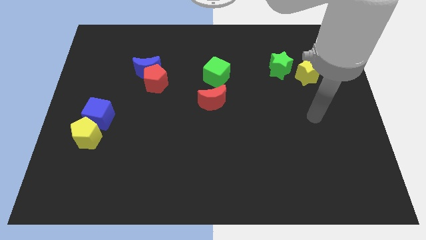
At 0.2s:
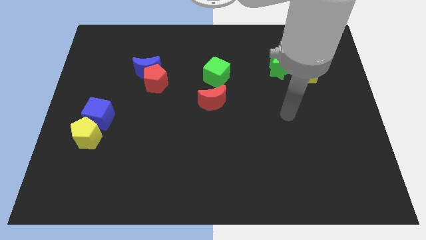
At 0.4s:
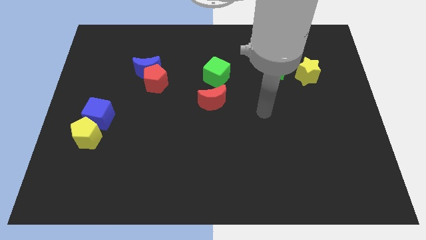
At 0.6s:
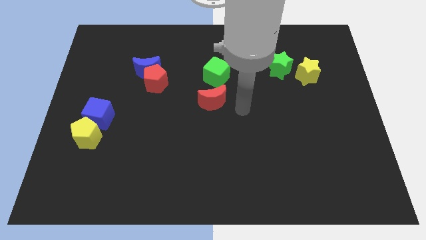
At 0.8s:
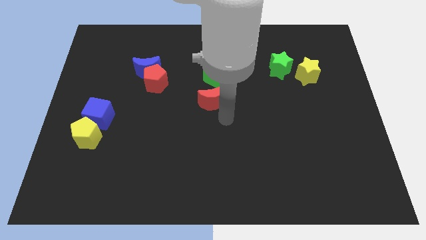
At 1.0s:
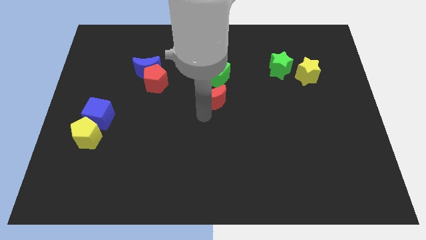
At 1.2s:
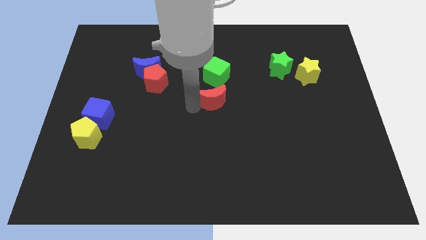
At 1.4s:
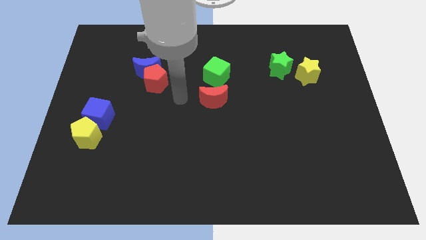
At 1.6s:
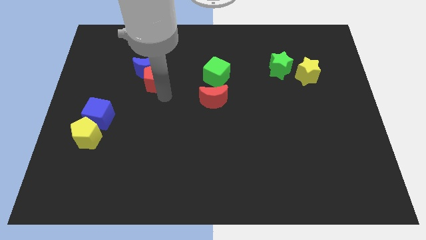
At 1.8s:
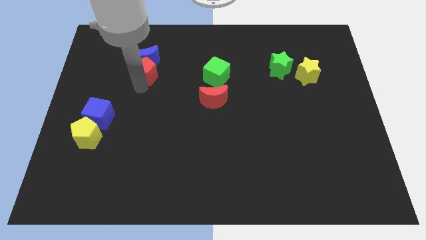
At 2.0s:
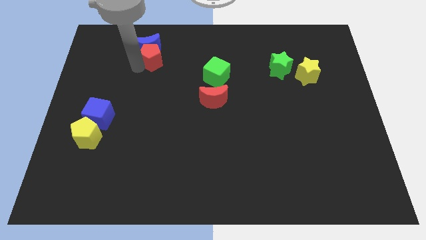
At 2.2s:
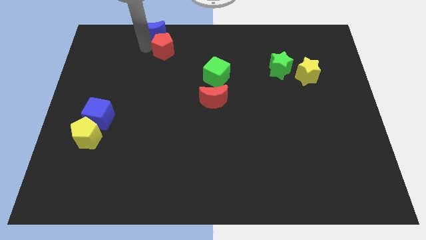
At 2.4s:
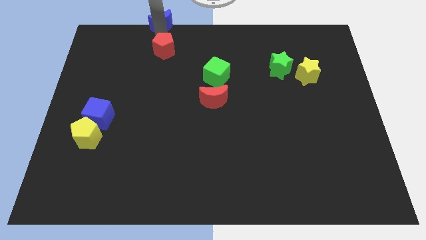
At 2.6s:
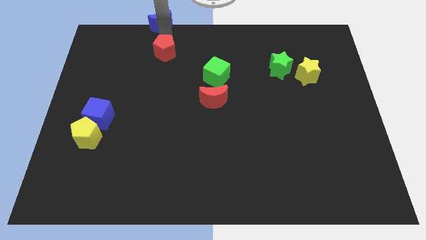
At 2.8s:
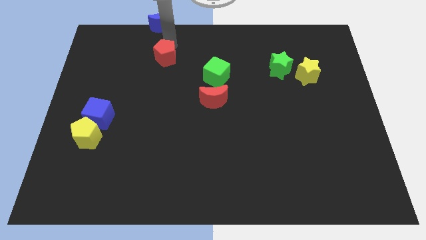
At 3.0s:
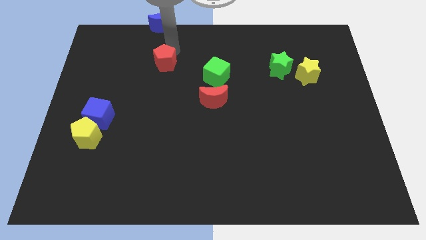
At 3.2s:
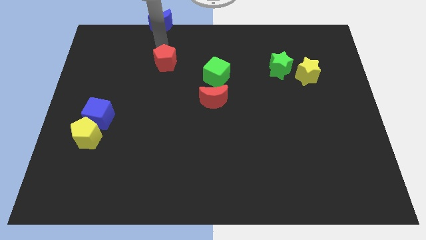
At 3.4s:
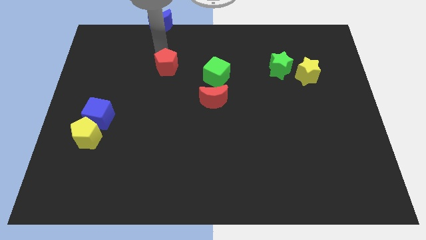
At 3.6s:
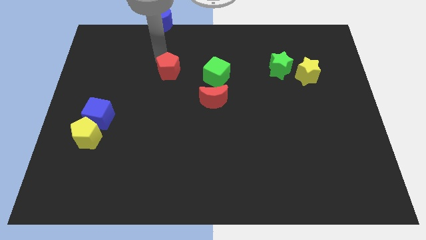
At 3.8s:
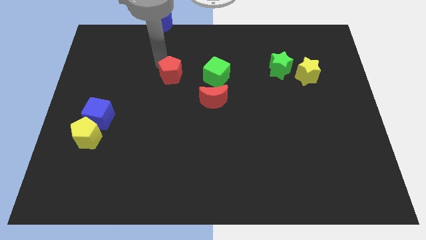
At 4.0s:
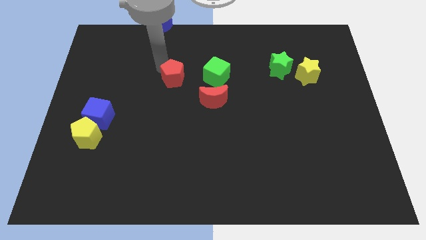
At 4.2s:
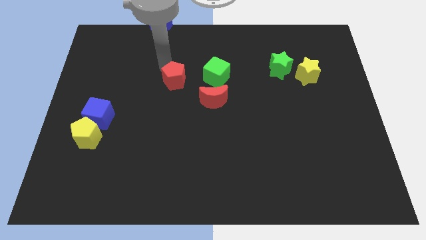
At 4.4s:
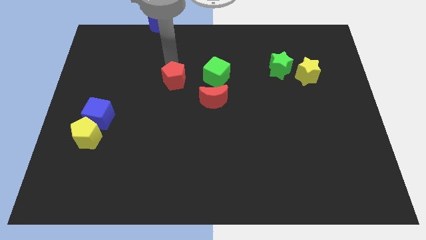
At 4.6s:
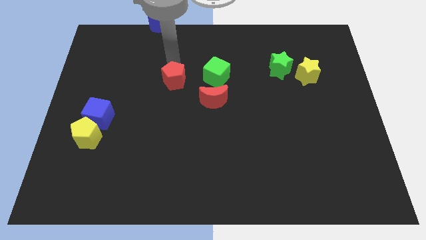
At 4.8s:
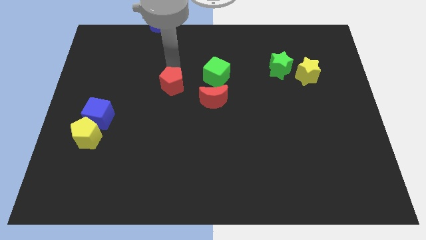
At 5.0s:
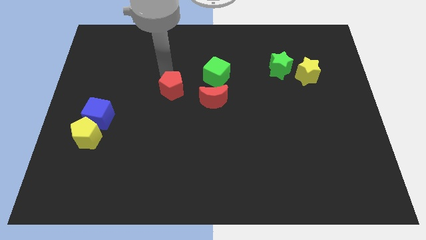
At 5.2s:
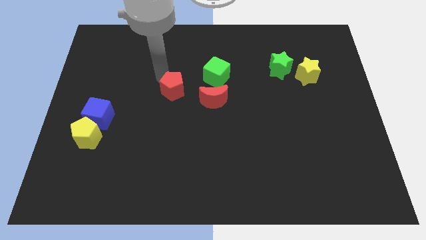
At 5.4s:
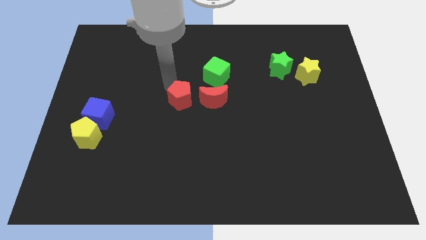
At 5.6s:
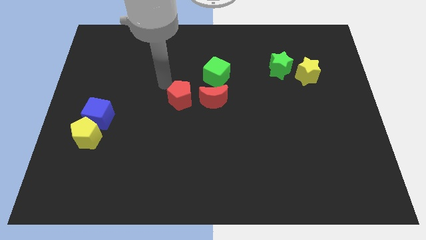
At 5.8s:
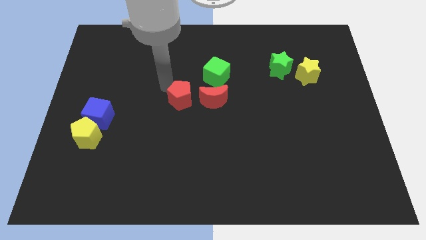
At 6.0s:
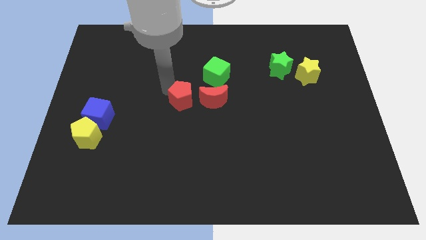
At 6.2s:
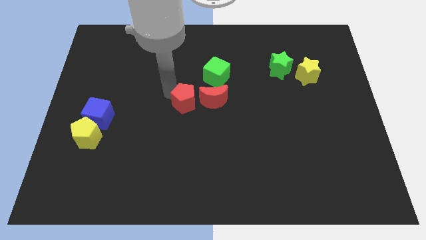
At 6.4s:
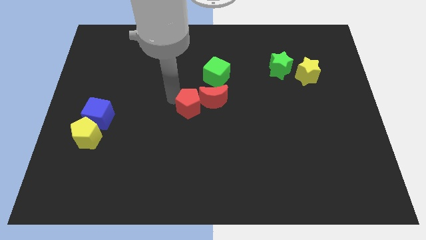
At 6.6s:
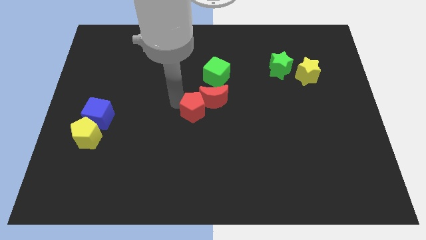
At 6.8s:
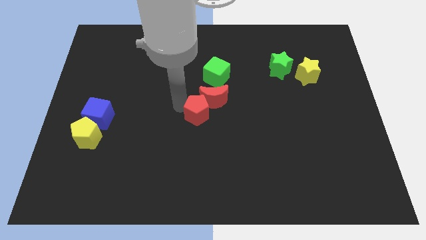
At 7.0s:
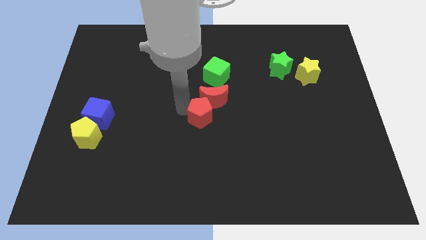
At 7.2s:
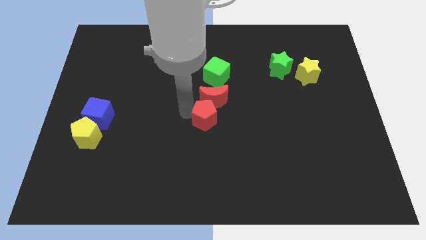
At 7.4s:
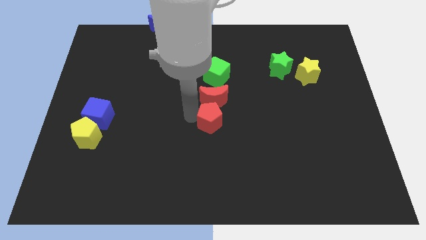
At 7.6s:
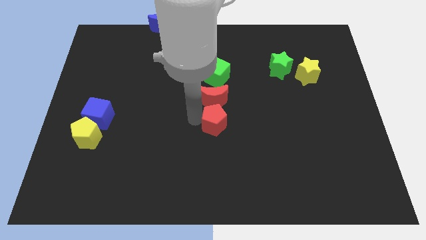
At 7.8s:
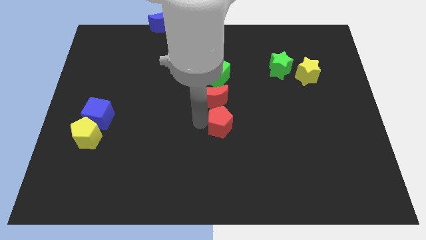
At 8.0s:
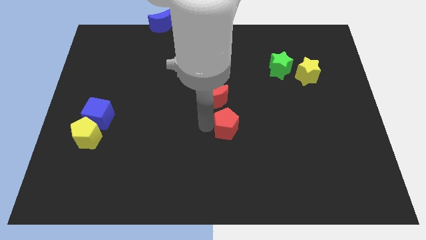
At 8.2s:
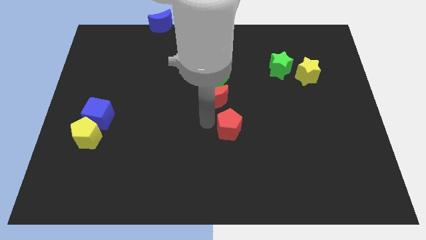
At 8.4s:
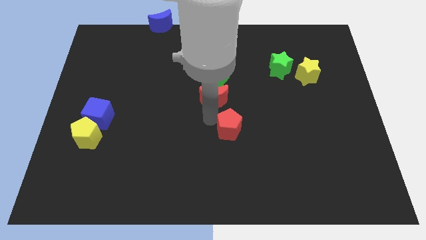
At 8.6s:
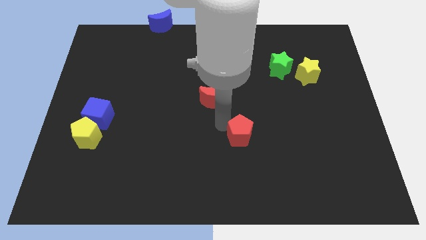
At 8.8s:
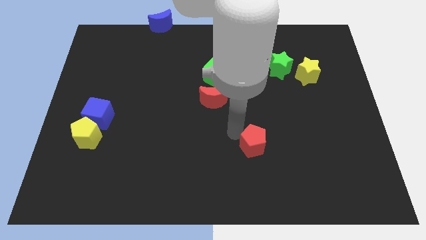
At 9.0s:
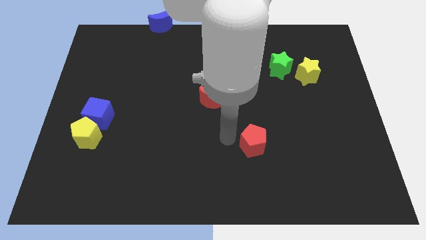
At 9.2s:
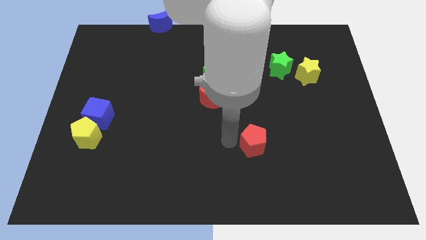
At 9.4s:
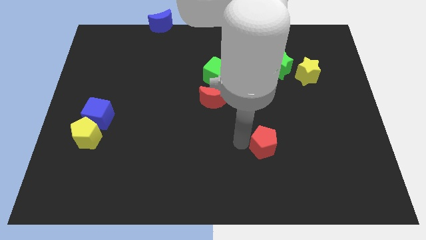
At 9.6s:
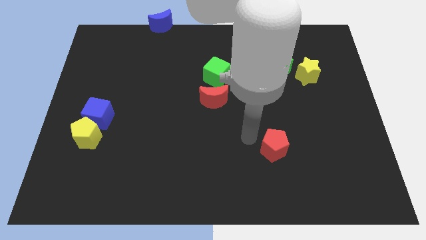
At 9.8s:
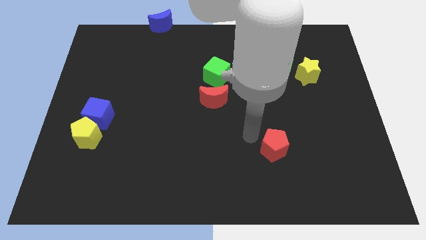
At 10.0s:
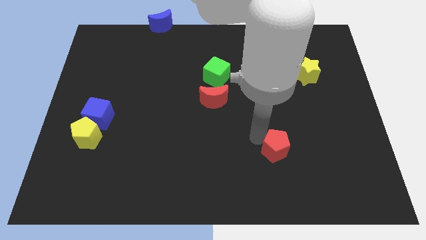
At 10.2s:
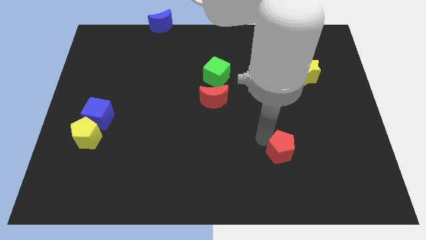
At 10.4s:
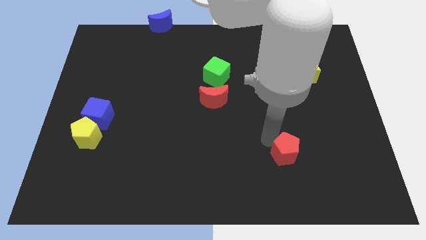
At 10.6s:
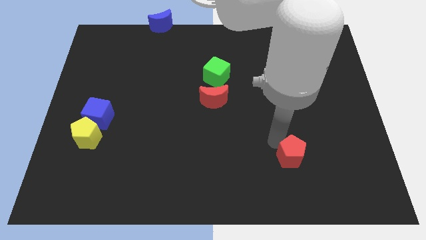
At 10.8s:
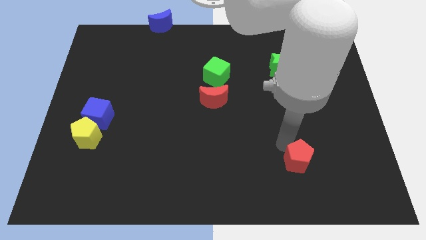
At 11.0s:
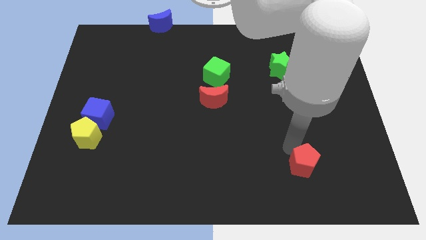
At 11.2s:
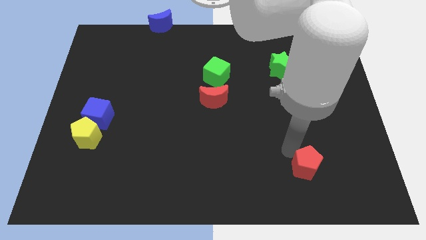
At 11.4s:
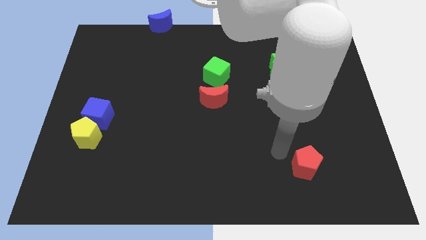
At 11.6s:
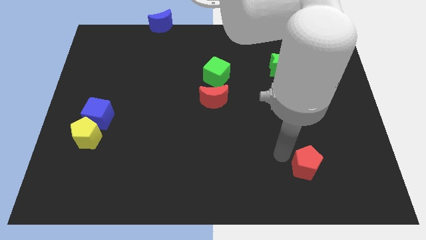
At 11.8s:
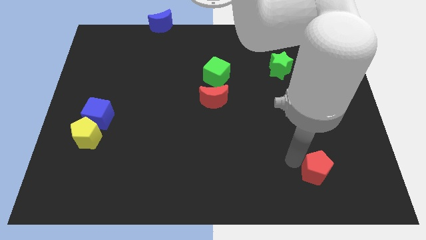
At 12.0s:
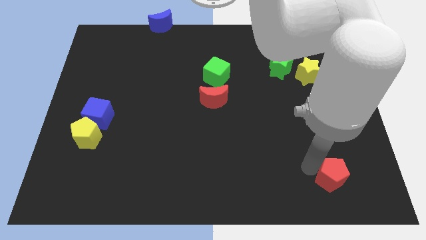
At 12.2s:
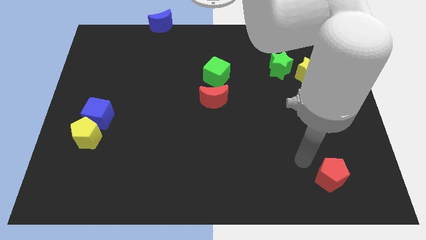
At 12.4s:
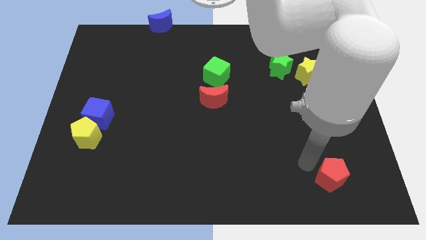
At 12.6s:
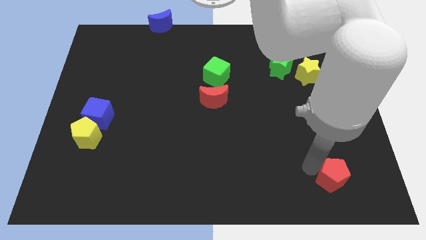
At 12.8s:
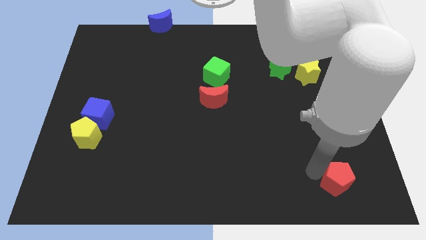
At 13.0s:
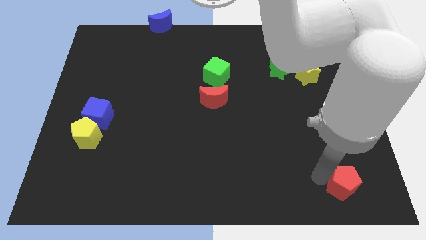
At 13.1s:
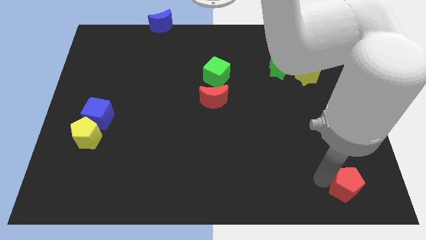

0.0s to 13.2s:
put the red pentagon to the bottom right

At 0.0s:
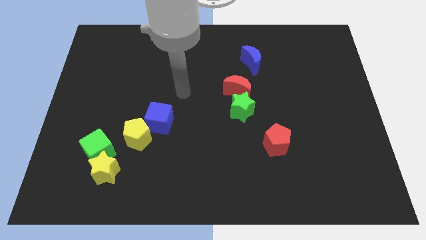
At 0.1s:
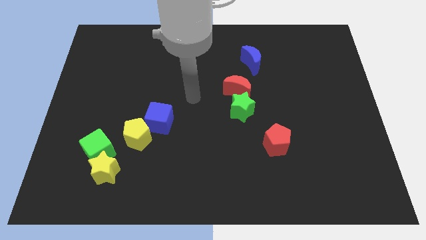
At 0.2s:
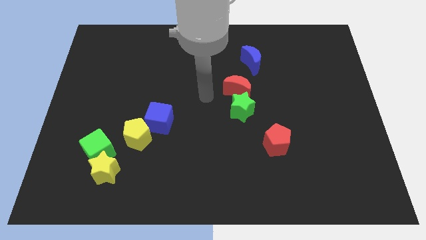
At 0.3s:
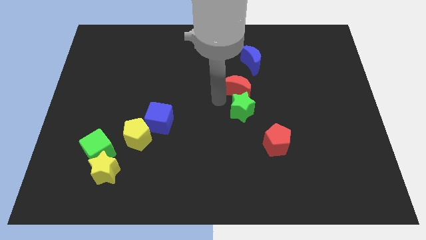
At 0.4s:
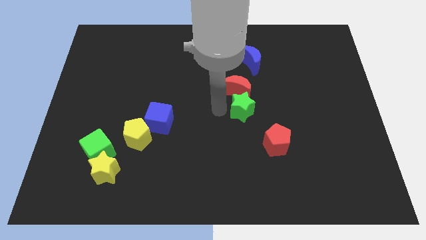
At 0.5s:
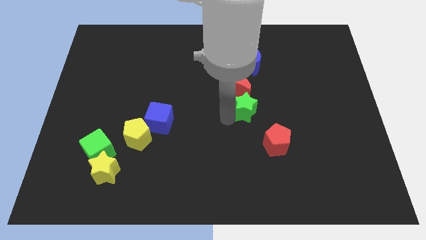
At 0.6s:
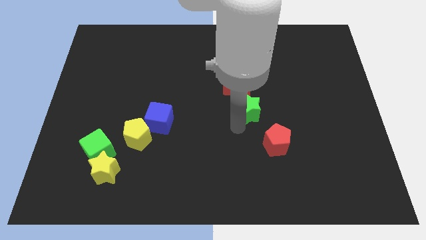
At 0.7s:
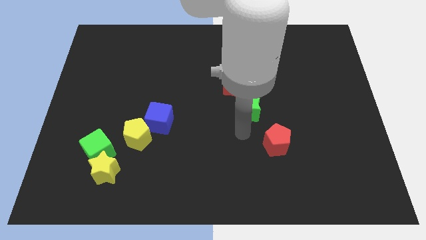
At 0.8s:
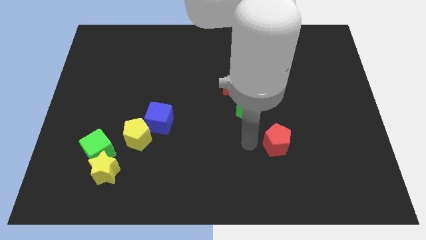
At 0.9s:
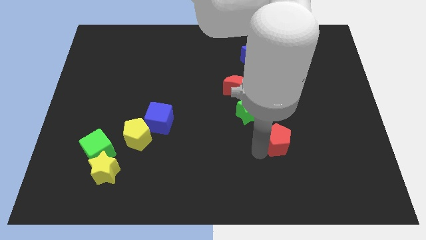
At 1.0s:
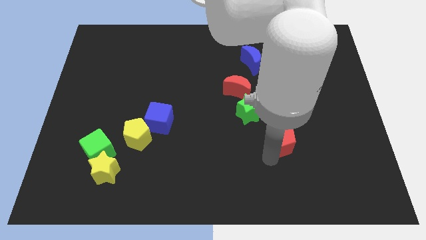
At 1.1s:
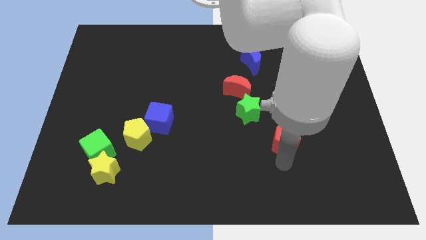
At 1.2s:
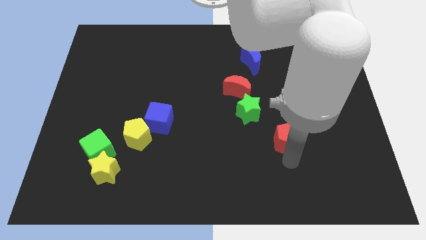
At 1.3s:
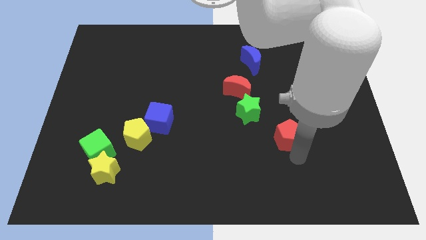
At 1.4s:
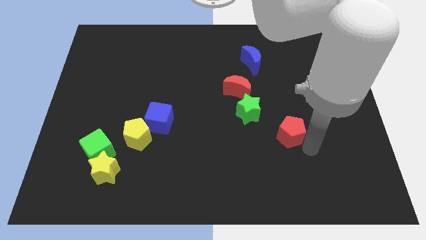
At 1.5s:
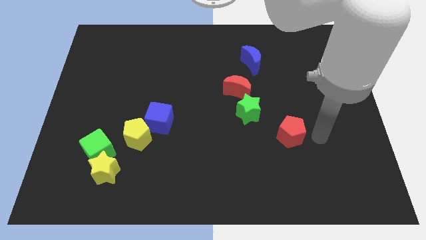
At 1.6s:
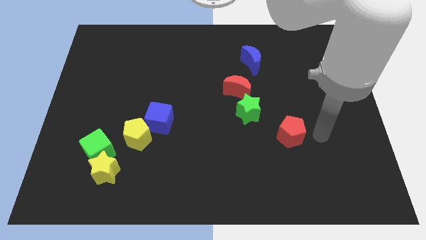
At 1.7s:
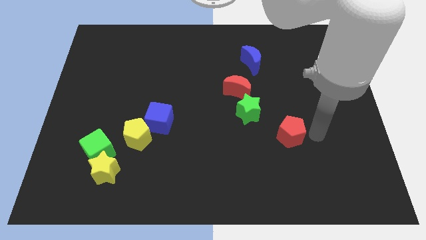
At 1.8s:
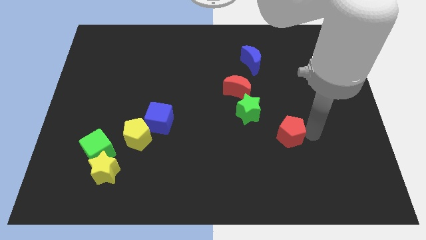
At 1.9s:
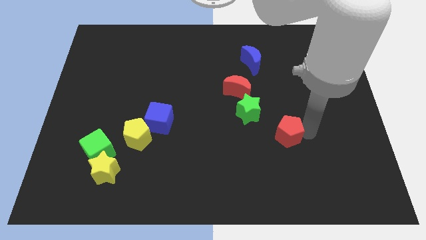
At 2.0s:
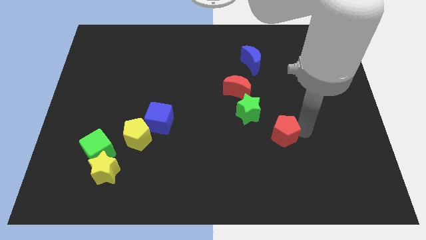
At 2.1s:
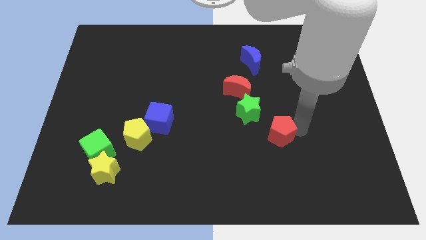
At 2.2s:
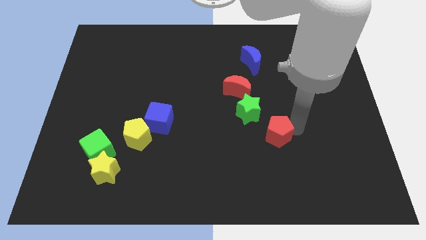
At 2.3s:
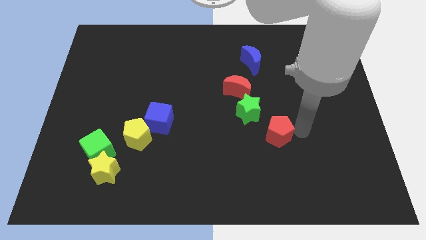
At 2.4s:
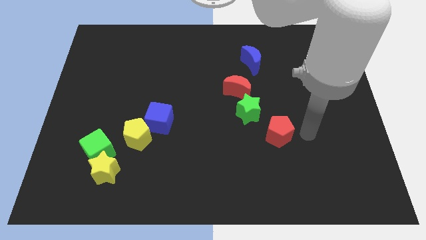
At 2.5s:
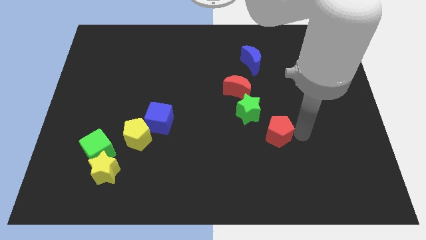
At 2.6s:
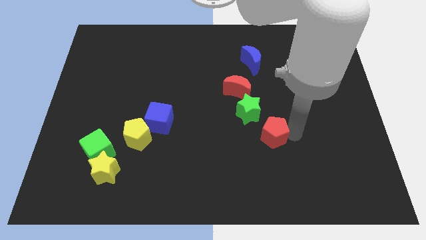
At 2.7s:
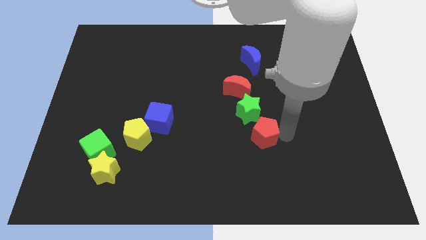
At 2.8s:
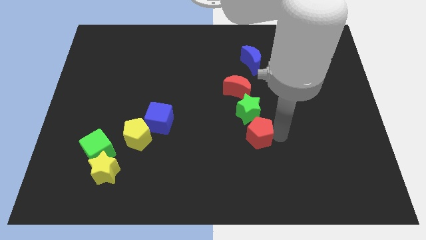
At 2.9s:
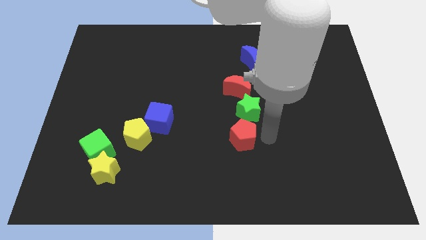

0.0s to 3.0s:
put the red pentagon to the center of the board
